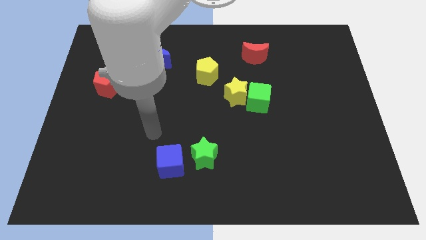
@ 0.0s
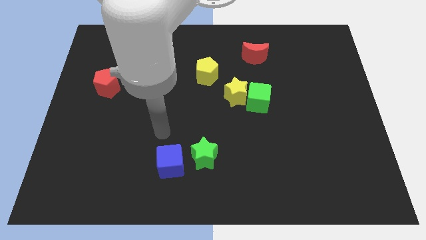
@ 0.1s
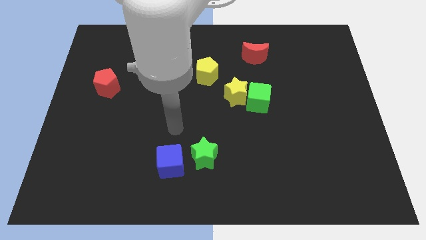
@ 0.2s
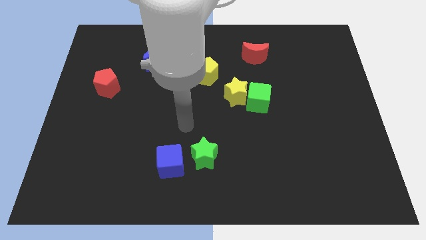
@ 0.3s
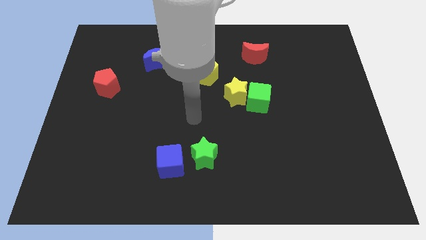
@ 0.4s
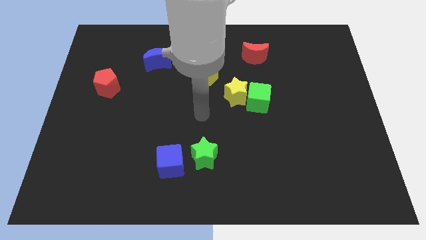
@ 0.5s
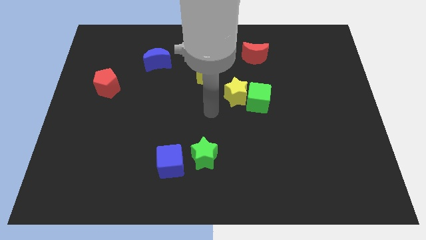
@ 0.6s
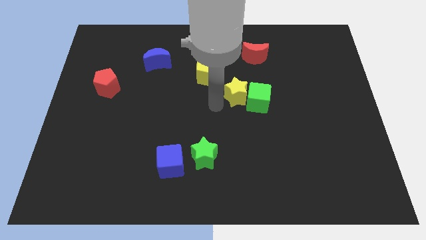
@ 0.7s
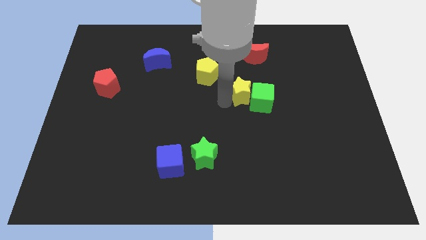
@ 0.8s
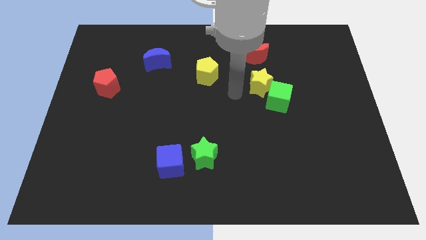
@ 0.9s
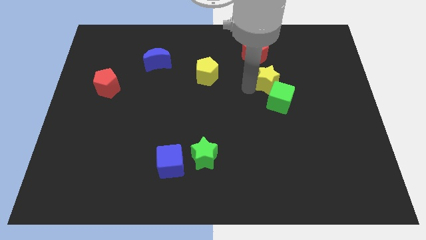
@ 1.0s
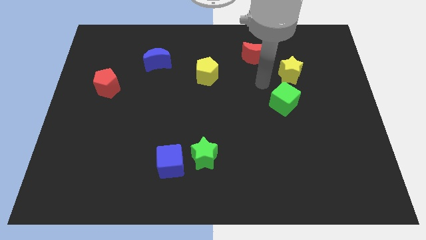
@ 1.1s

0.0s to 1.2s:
separate the green cube from the yellow star

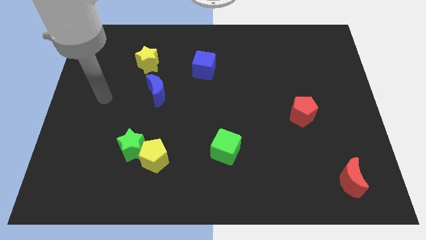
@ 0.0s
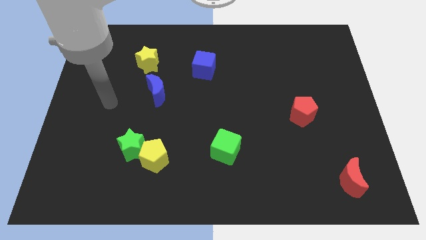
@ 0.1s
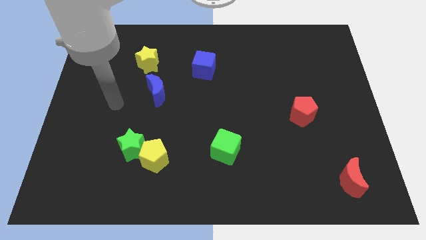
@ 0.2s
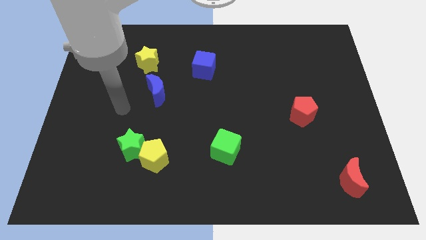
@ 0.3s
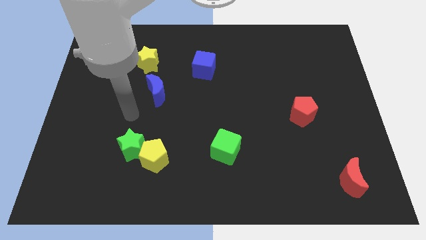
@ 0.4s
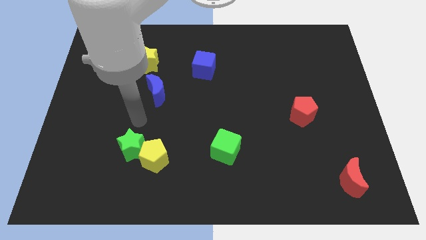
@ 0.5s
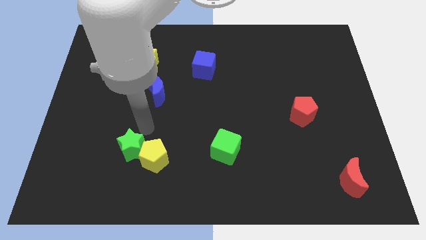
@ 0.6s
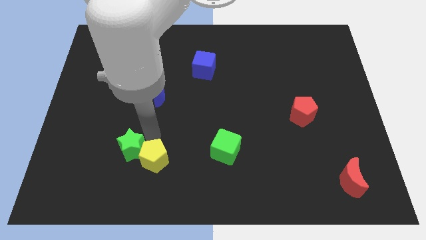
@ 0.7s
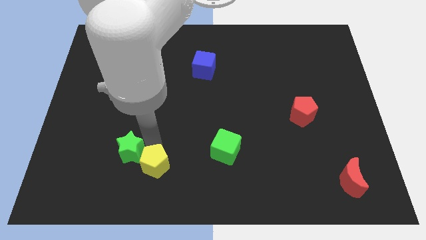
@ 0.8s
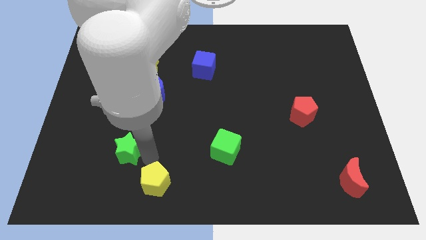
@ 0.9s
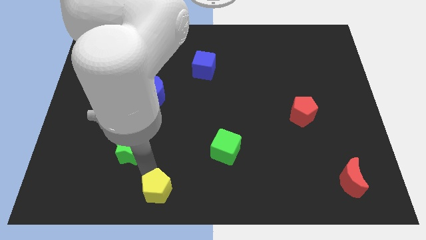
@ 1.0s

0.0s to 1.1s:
pull the green star apart from the yellow pentagon

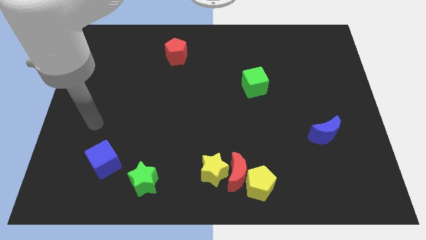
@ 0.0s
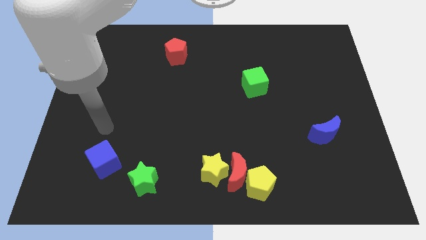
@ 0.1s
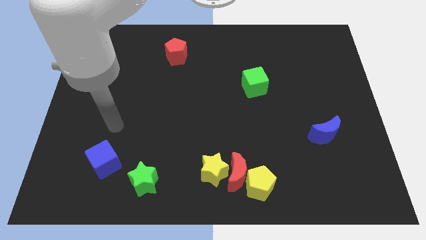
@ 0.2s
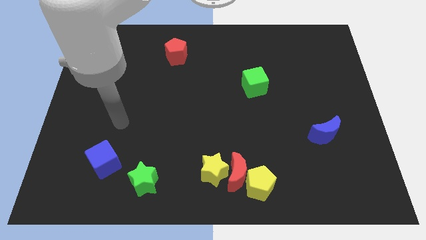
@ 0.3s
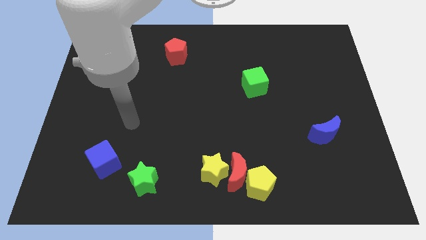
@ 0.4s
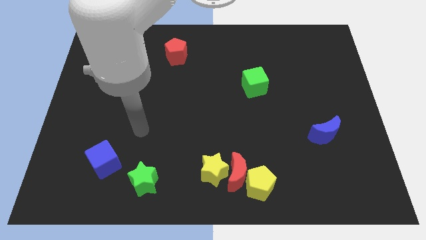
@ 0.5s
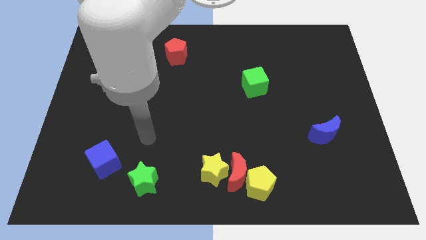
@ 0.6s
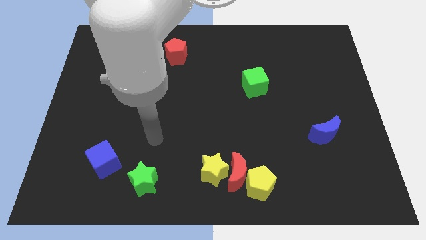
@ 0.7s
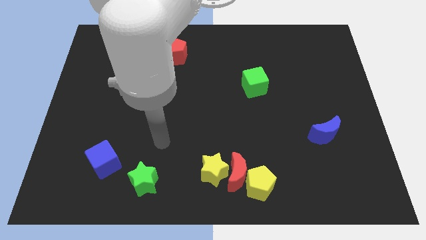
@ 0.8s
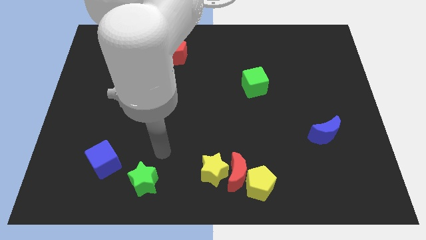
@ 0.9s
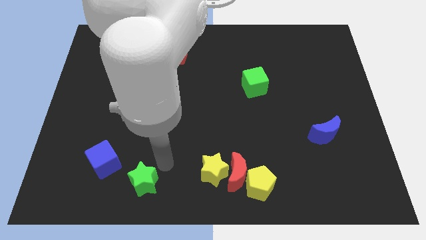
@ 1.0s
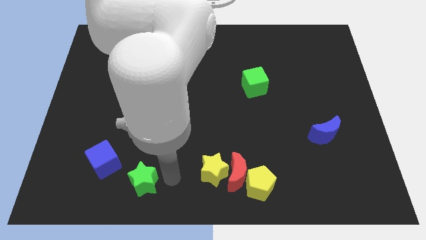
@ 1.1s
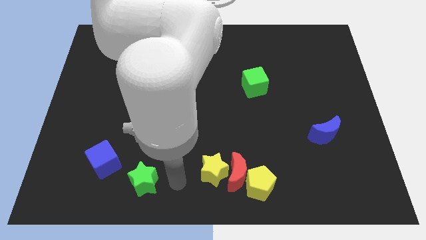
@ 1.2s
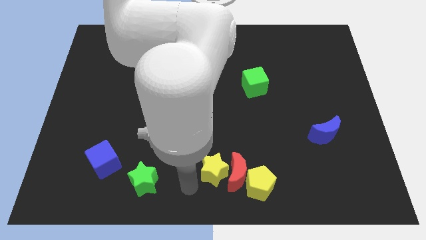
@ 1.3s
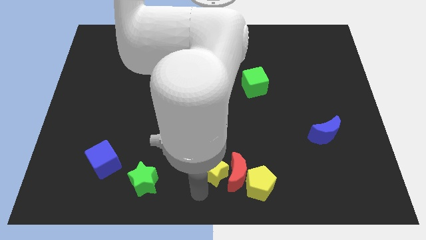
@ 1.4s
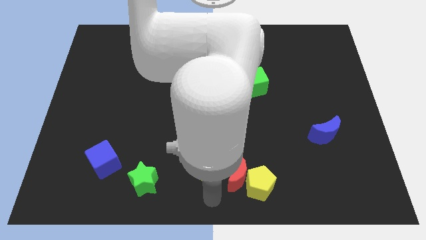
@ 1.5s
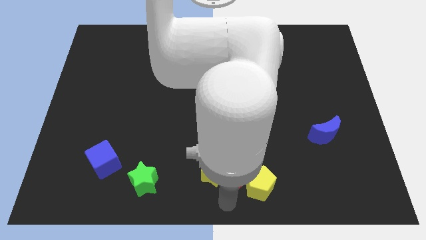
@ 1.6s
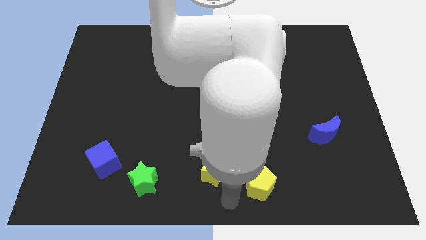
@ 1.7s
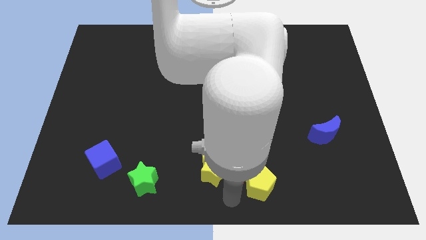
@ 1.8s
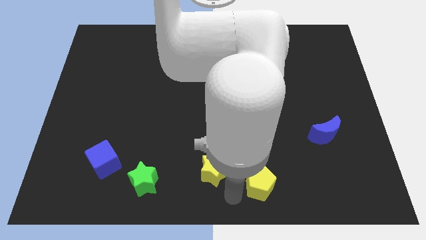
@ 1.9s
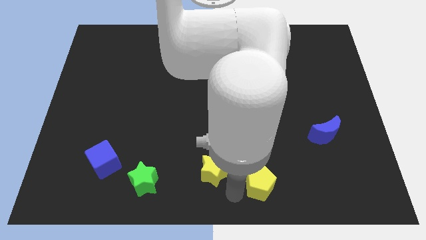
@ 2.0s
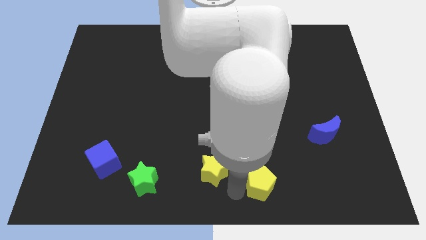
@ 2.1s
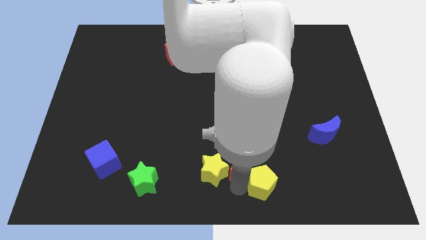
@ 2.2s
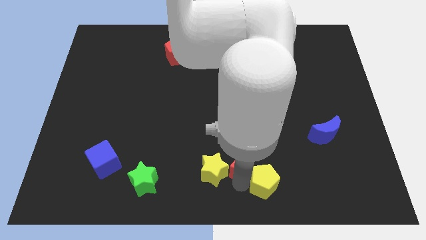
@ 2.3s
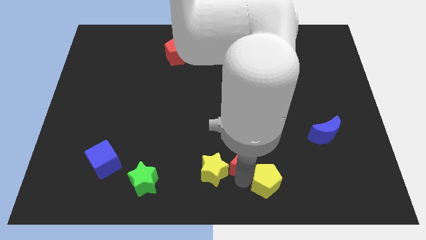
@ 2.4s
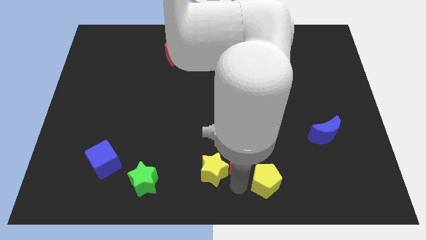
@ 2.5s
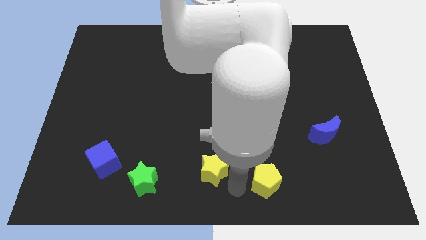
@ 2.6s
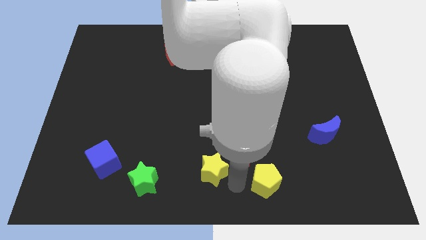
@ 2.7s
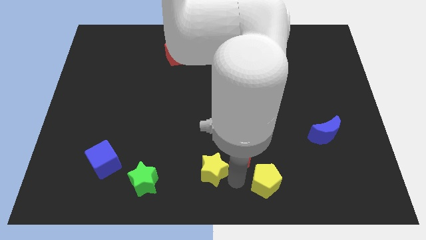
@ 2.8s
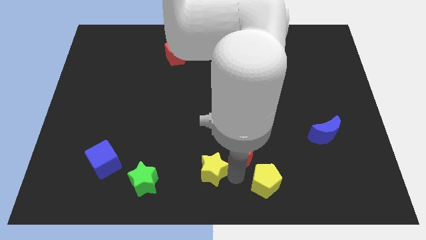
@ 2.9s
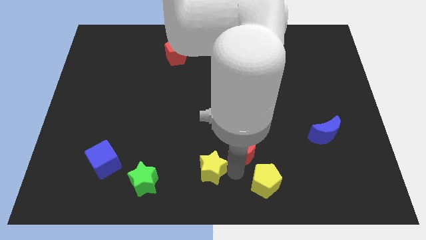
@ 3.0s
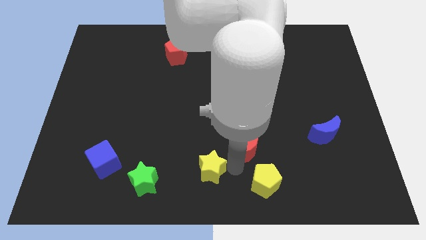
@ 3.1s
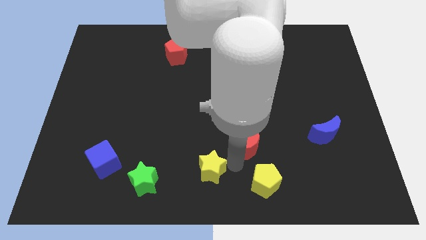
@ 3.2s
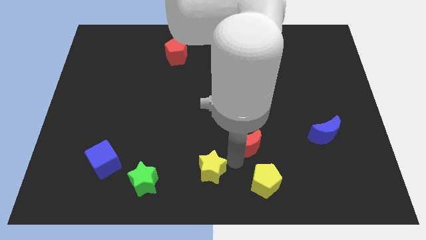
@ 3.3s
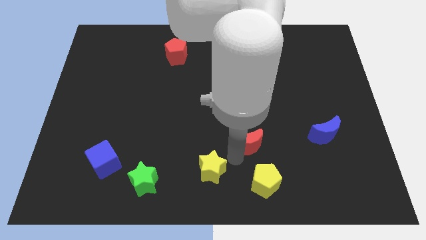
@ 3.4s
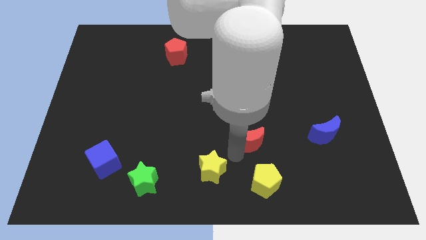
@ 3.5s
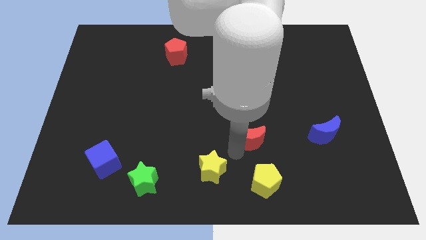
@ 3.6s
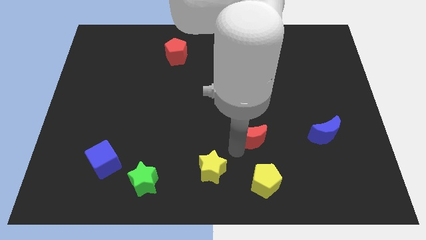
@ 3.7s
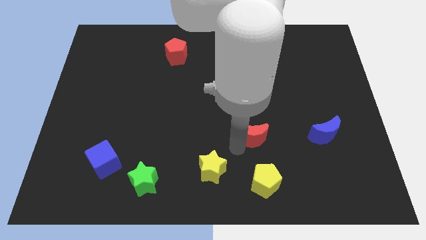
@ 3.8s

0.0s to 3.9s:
separate the red moon from the yellow star and yellow pentagon

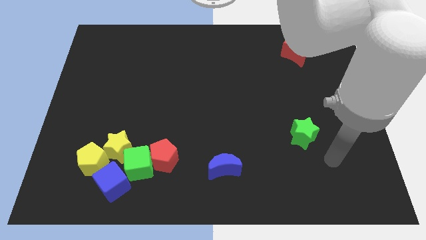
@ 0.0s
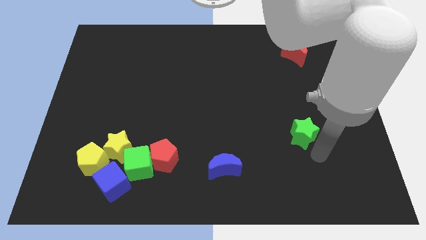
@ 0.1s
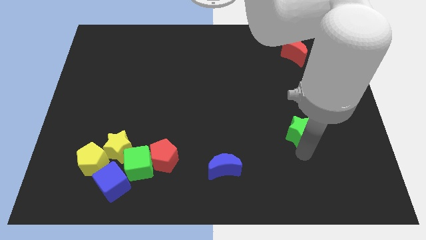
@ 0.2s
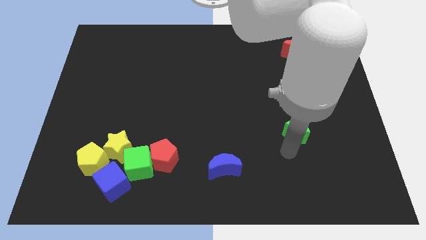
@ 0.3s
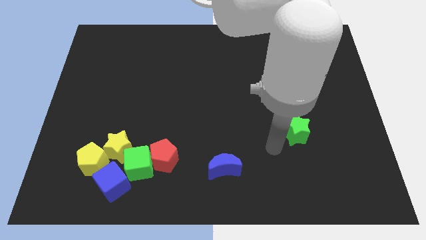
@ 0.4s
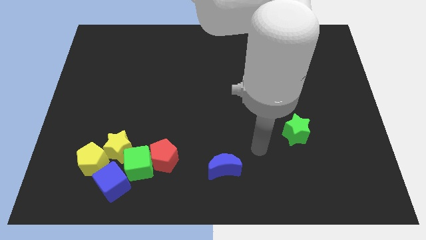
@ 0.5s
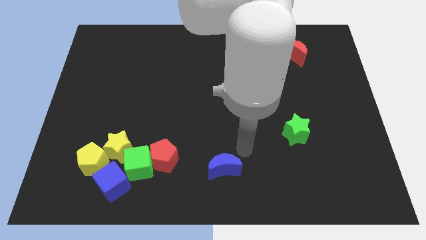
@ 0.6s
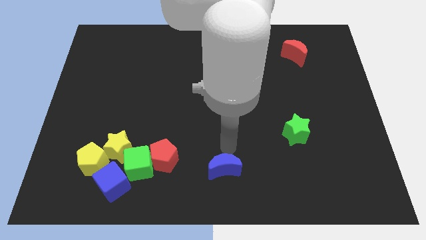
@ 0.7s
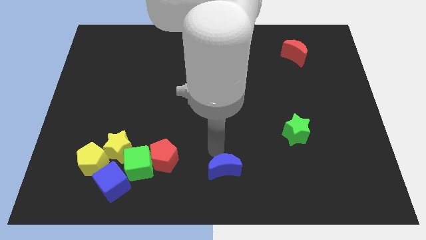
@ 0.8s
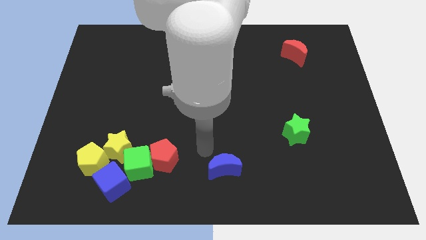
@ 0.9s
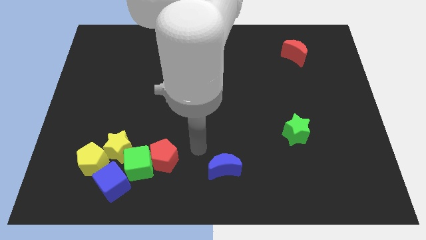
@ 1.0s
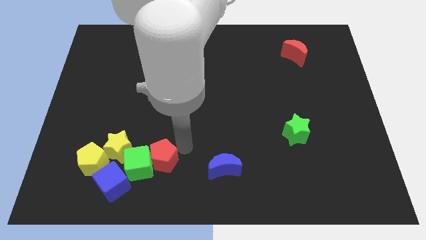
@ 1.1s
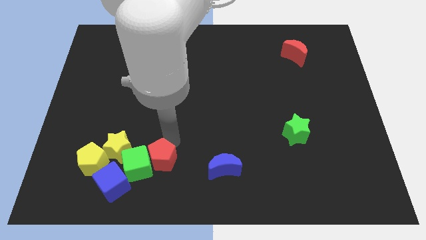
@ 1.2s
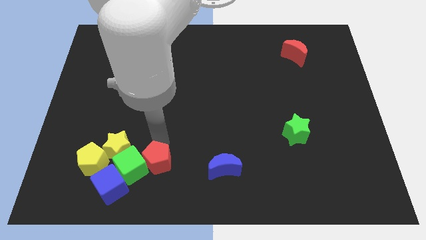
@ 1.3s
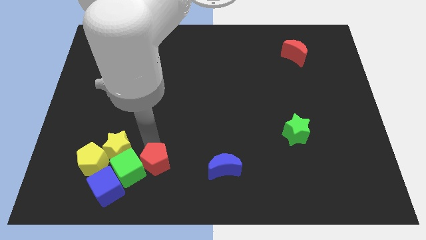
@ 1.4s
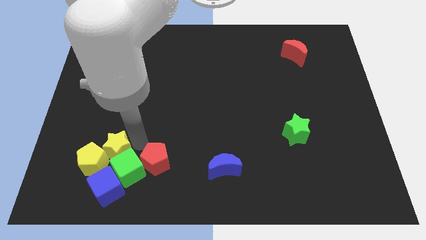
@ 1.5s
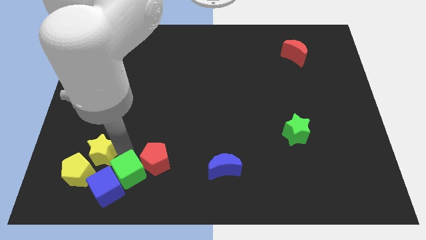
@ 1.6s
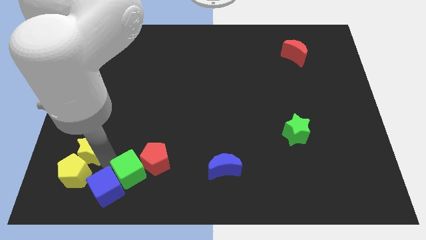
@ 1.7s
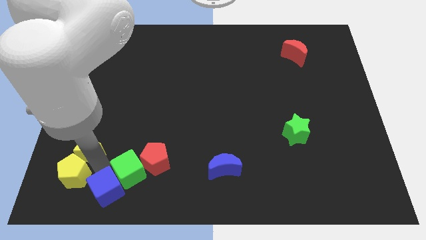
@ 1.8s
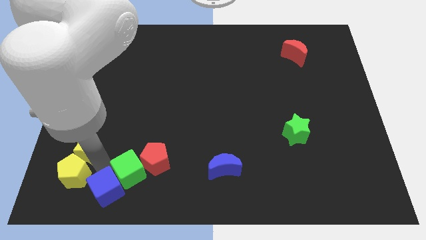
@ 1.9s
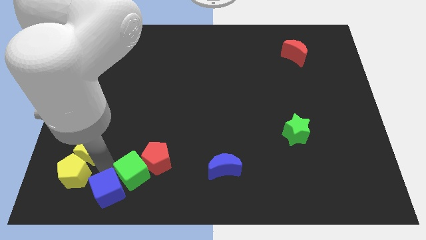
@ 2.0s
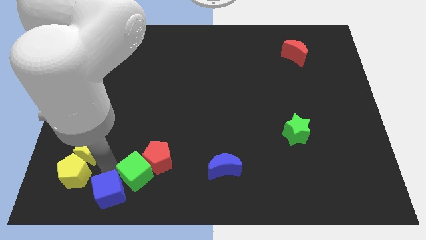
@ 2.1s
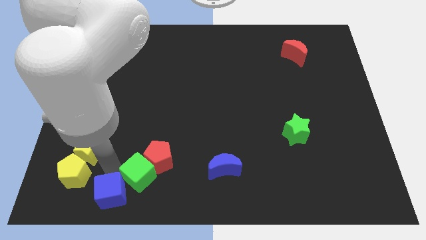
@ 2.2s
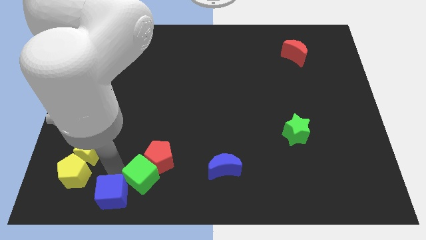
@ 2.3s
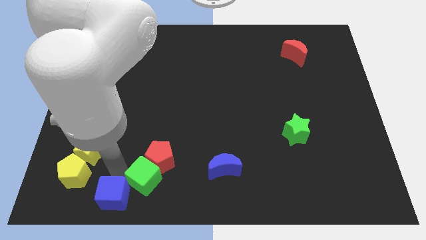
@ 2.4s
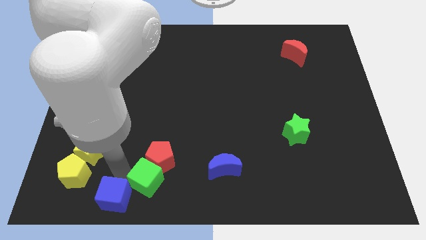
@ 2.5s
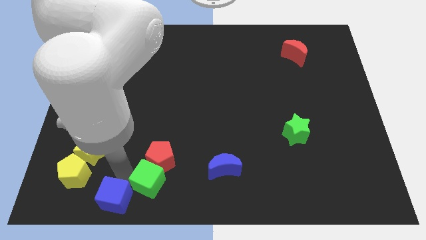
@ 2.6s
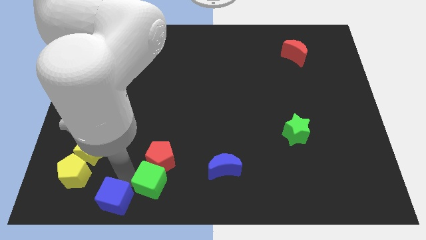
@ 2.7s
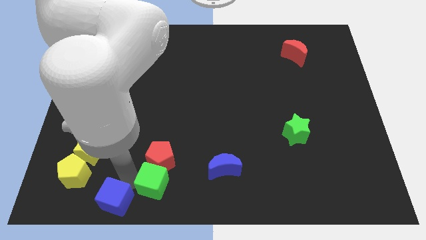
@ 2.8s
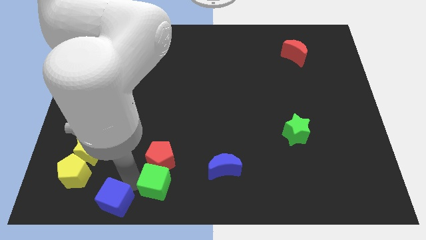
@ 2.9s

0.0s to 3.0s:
move the green cube away from the group

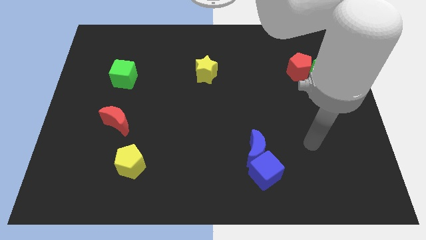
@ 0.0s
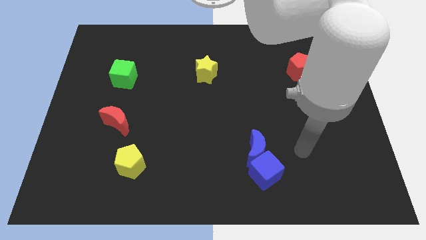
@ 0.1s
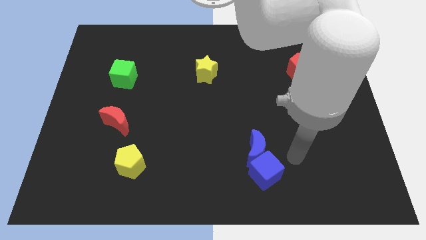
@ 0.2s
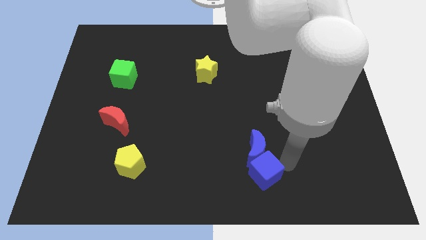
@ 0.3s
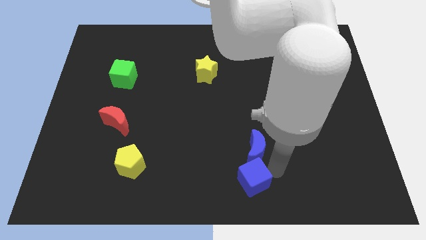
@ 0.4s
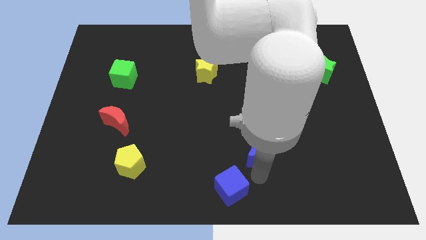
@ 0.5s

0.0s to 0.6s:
separate the blue moon from the blue cube
